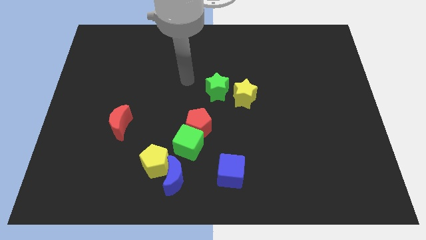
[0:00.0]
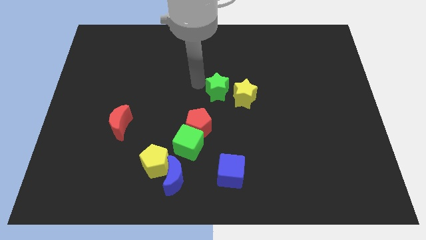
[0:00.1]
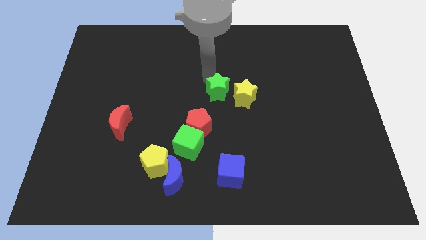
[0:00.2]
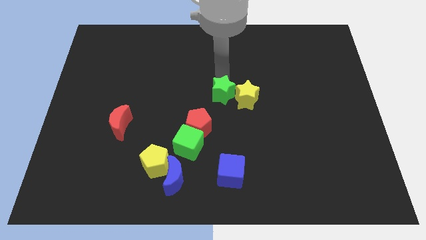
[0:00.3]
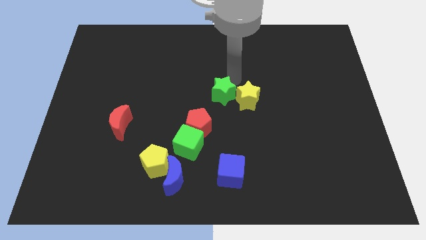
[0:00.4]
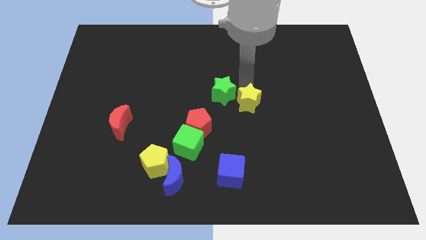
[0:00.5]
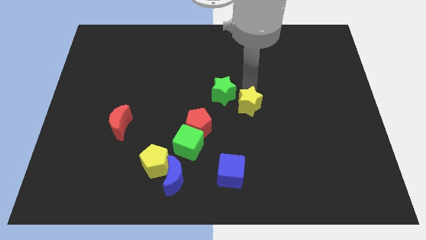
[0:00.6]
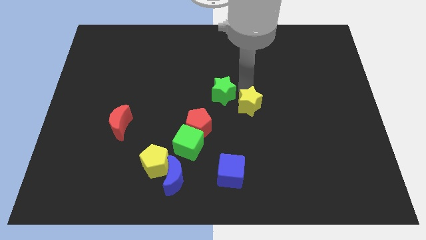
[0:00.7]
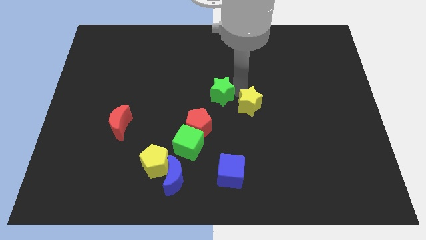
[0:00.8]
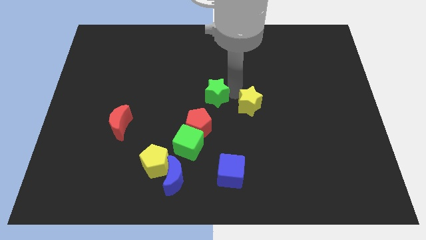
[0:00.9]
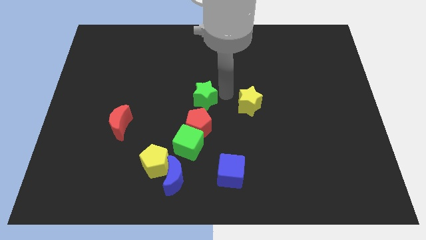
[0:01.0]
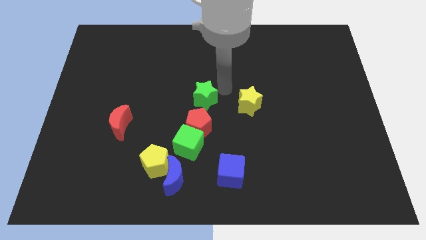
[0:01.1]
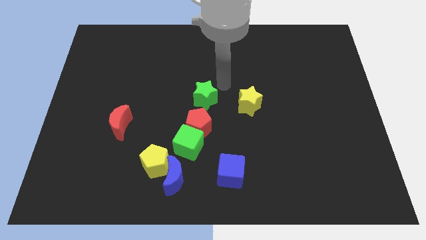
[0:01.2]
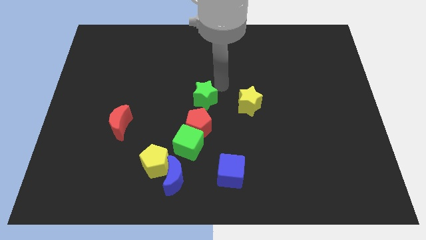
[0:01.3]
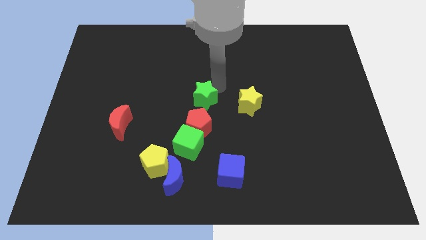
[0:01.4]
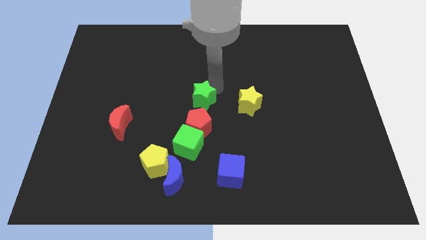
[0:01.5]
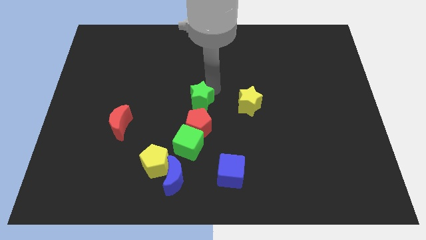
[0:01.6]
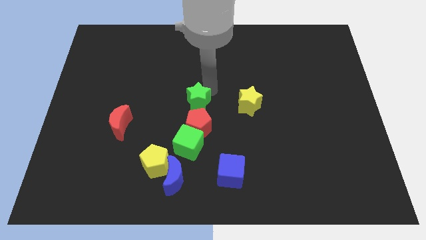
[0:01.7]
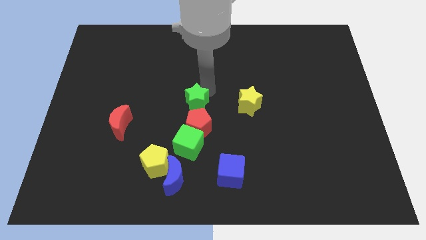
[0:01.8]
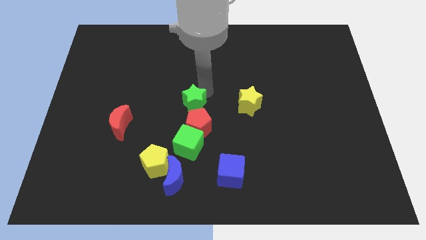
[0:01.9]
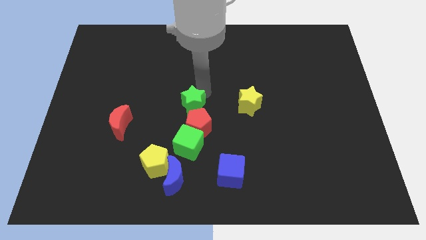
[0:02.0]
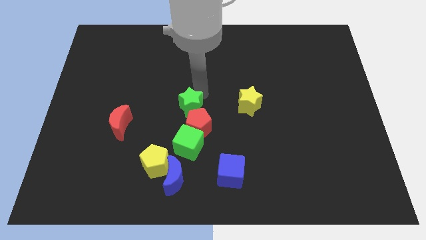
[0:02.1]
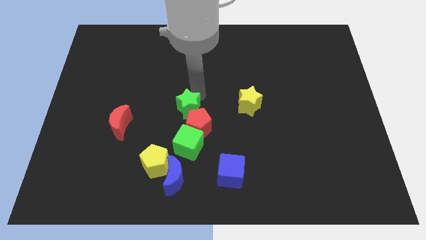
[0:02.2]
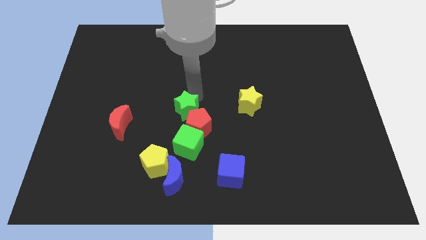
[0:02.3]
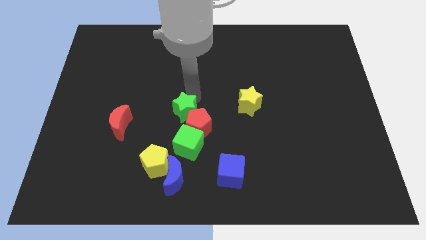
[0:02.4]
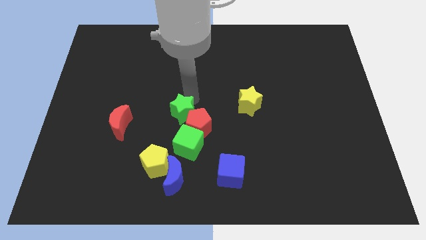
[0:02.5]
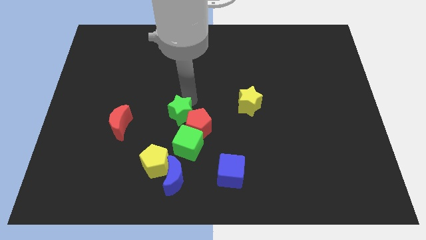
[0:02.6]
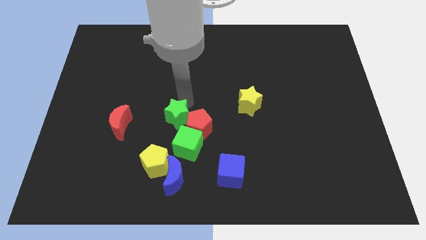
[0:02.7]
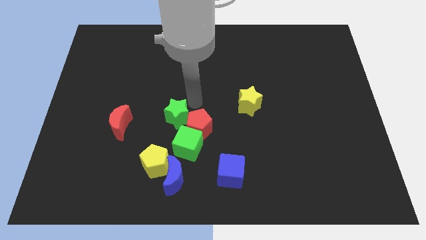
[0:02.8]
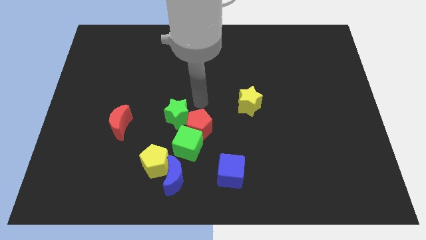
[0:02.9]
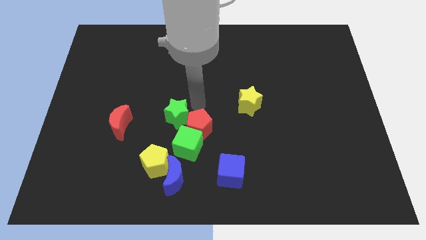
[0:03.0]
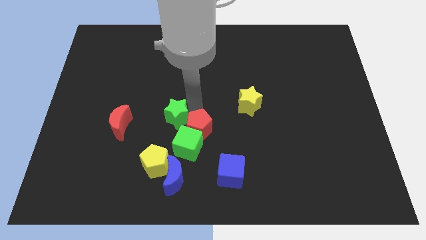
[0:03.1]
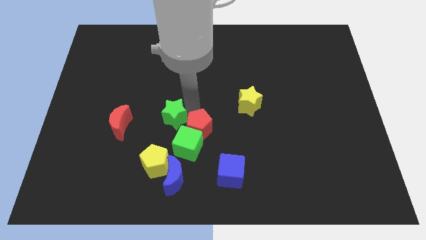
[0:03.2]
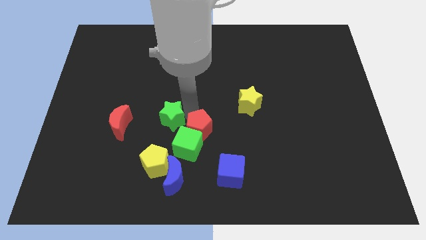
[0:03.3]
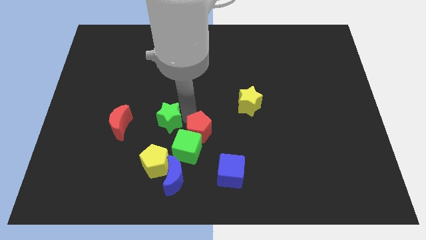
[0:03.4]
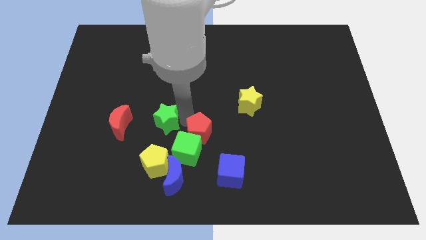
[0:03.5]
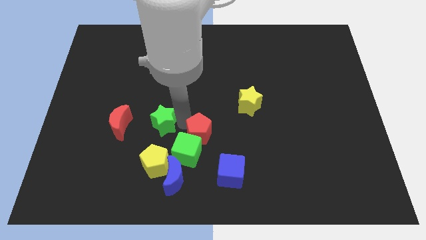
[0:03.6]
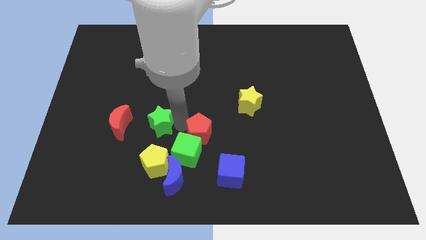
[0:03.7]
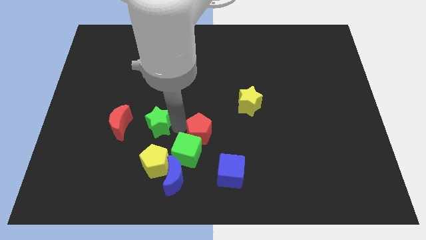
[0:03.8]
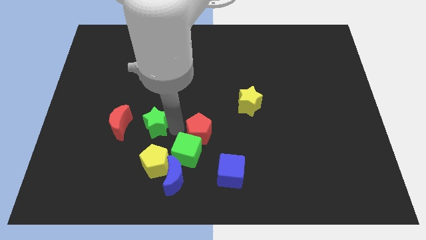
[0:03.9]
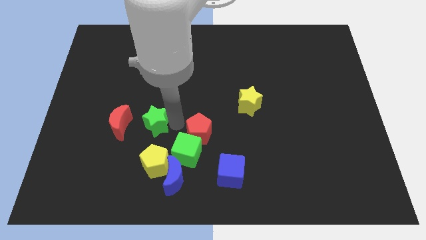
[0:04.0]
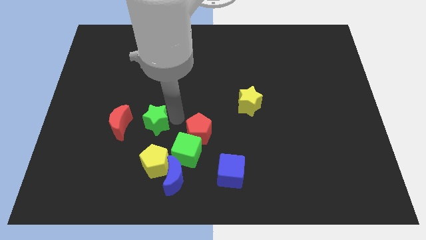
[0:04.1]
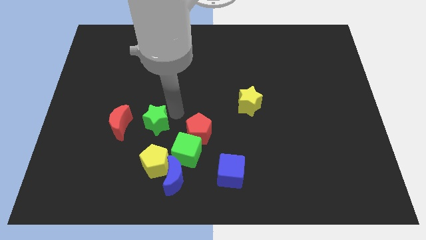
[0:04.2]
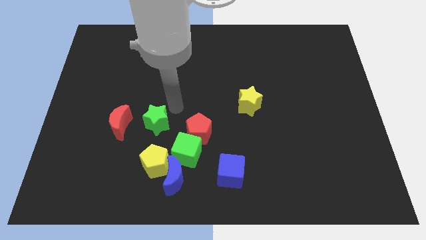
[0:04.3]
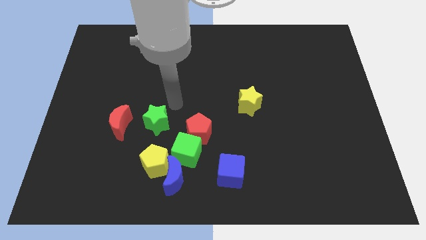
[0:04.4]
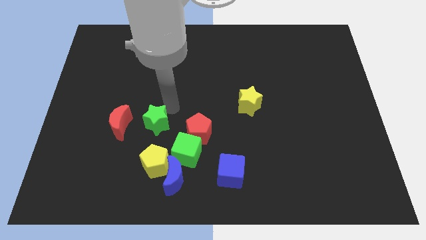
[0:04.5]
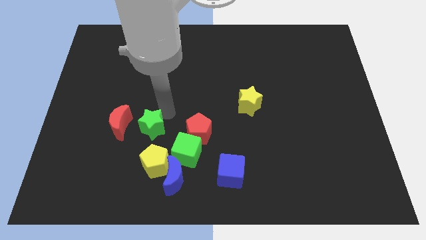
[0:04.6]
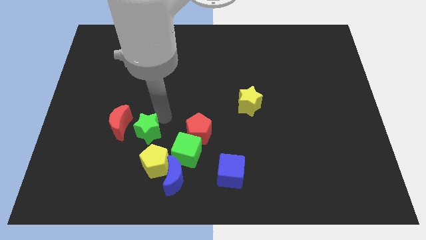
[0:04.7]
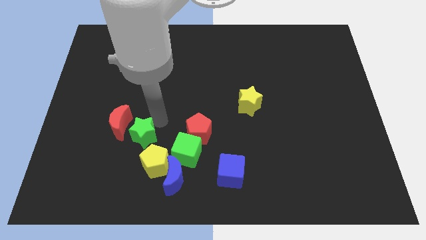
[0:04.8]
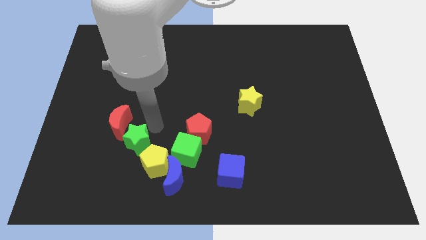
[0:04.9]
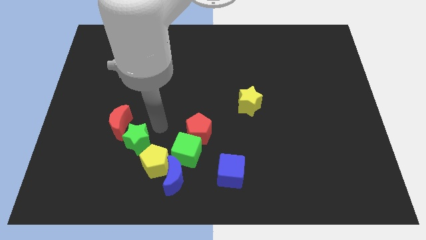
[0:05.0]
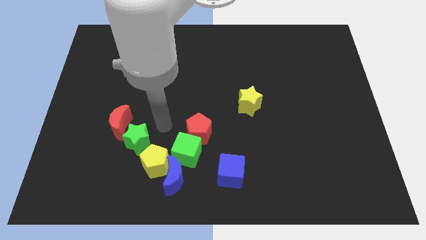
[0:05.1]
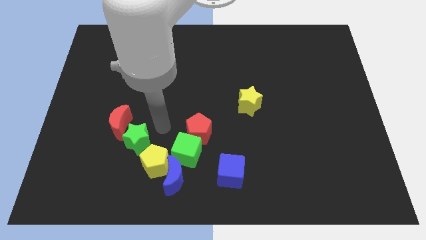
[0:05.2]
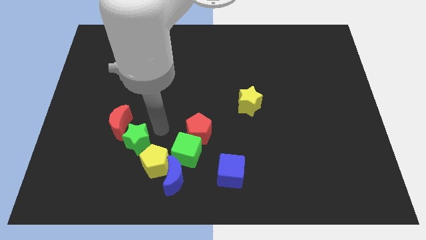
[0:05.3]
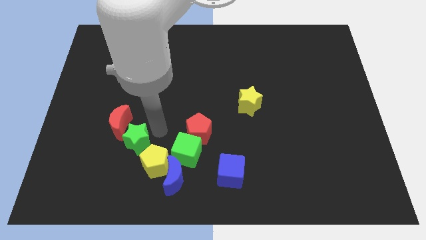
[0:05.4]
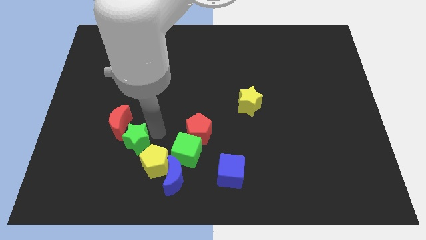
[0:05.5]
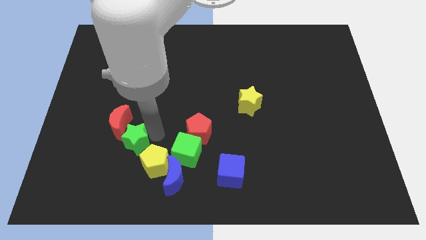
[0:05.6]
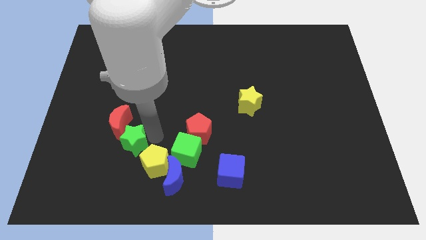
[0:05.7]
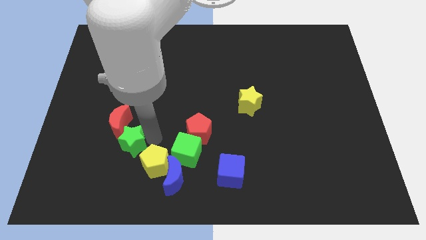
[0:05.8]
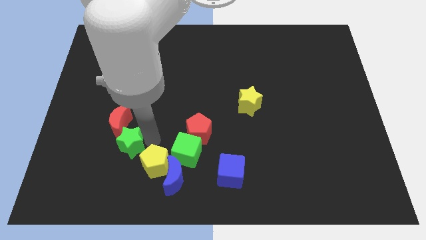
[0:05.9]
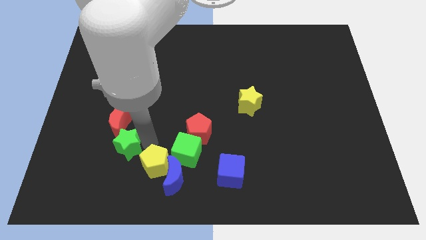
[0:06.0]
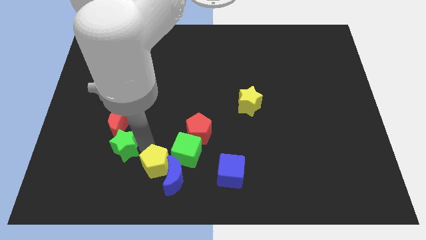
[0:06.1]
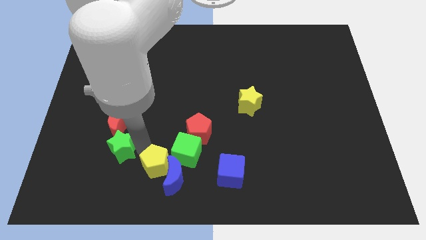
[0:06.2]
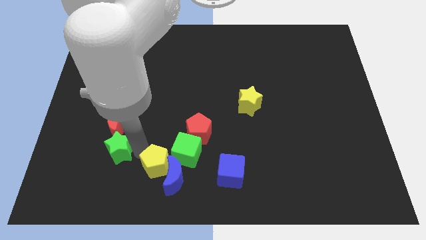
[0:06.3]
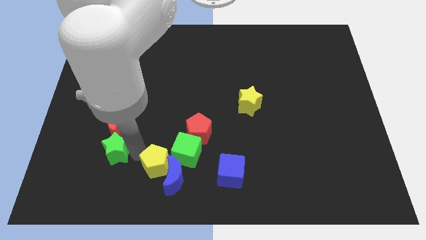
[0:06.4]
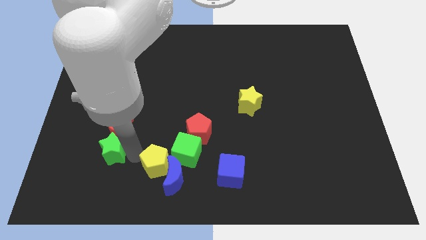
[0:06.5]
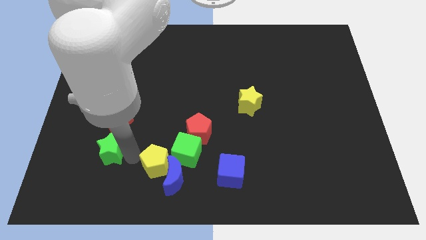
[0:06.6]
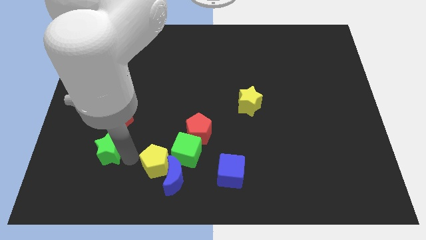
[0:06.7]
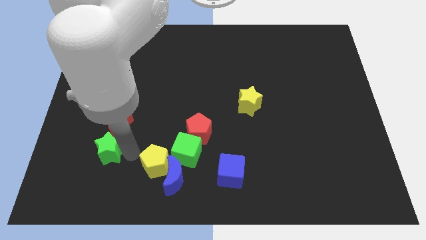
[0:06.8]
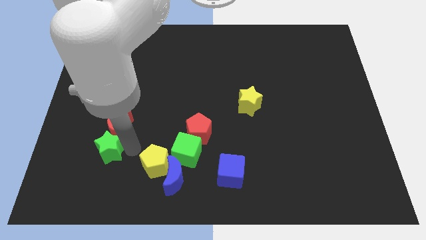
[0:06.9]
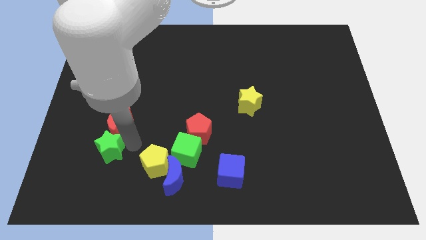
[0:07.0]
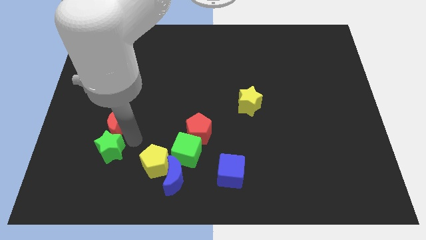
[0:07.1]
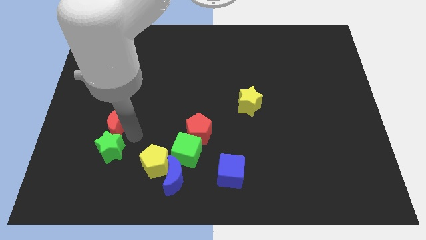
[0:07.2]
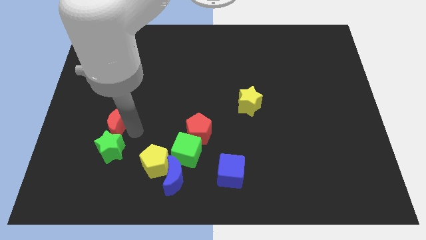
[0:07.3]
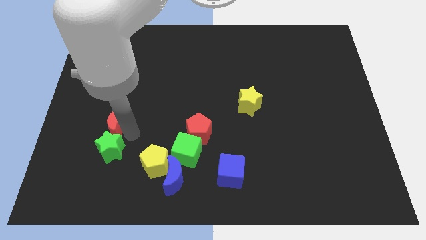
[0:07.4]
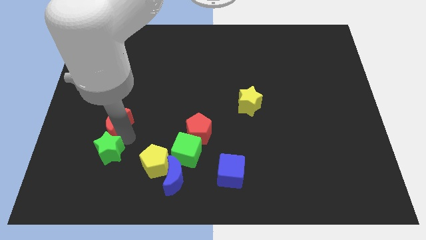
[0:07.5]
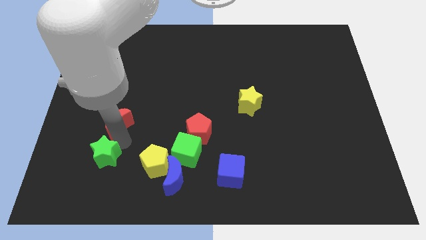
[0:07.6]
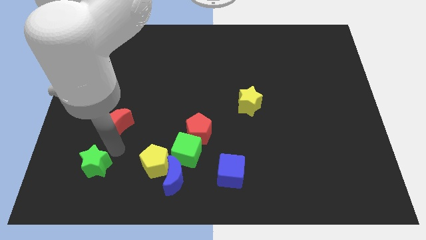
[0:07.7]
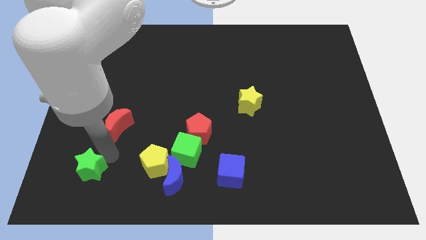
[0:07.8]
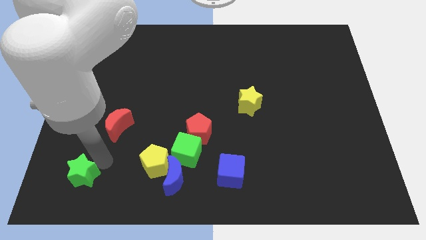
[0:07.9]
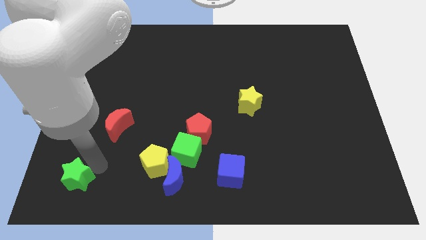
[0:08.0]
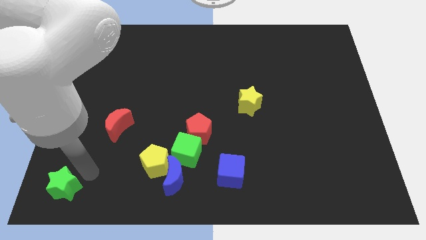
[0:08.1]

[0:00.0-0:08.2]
move the green star to the lower left corner
